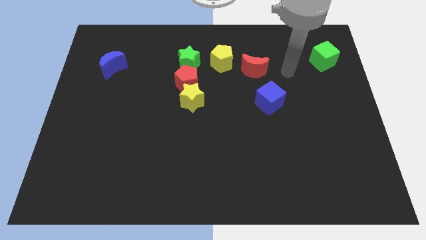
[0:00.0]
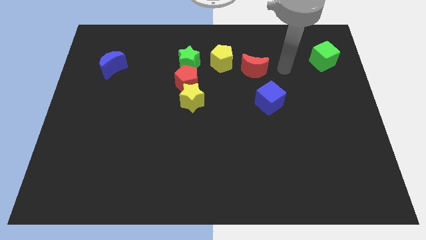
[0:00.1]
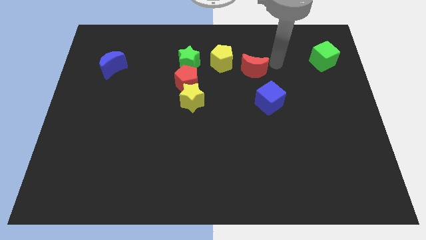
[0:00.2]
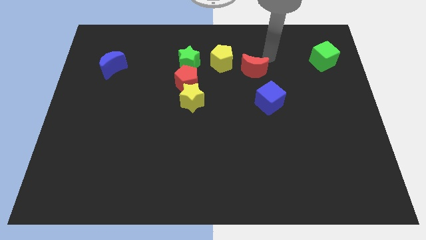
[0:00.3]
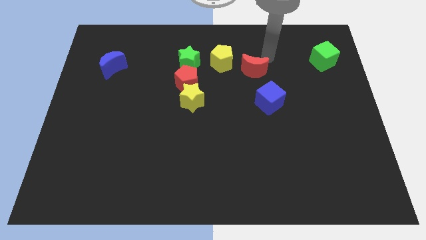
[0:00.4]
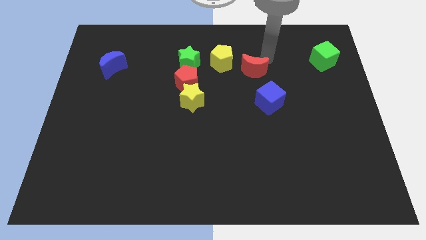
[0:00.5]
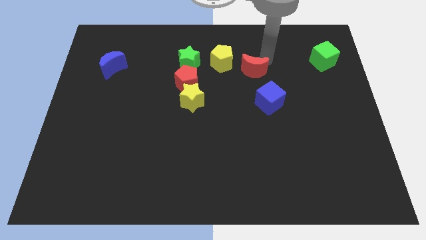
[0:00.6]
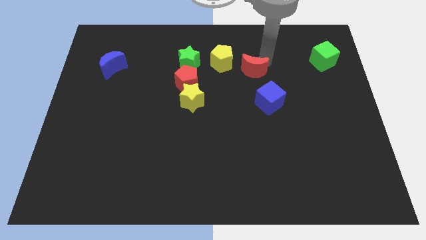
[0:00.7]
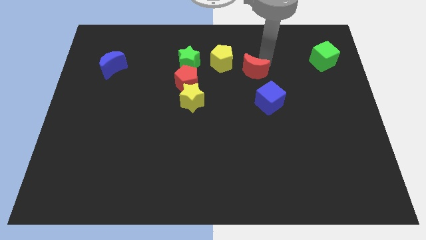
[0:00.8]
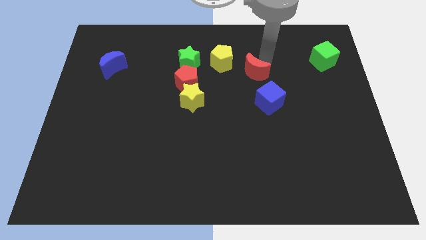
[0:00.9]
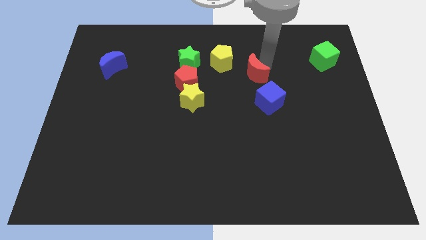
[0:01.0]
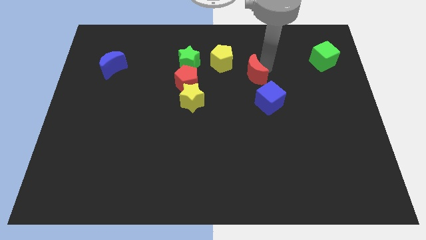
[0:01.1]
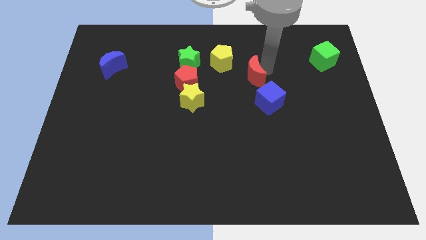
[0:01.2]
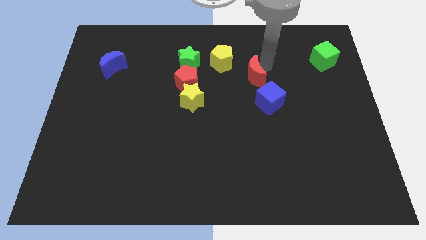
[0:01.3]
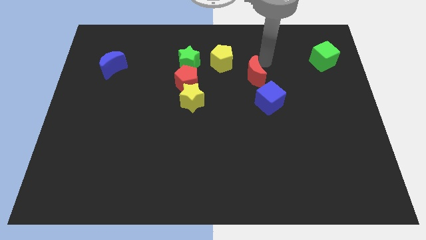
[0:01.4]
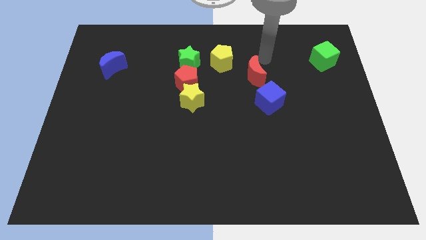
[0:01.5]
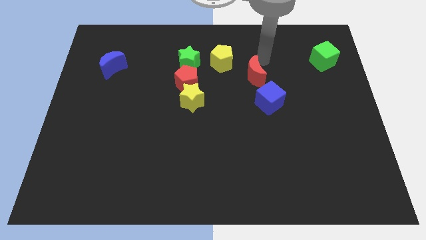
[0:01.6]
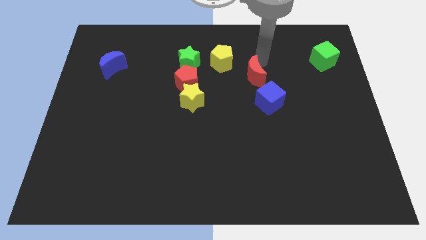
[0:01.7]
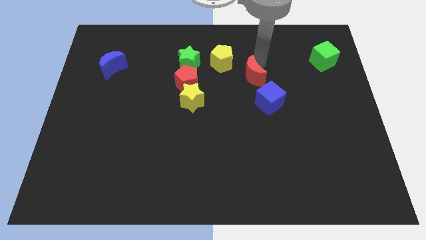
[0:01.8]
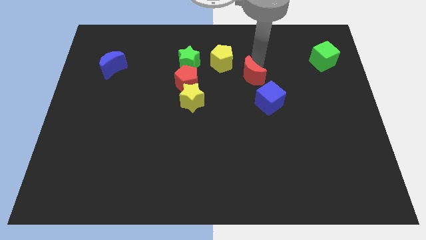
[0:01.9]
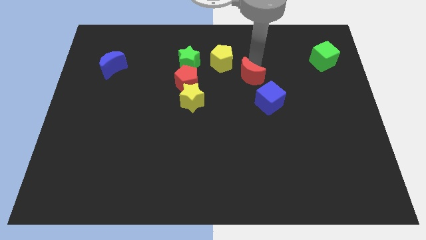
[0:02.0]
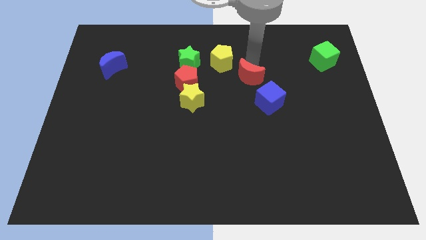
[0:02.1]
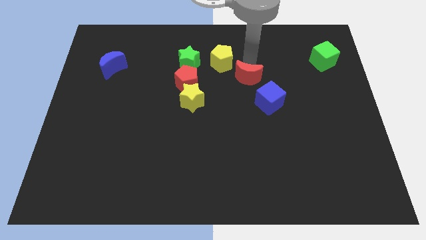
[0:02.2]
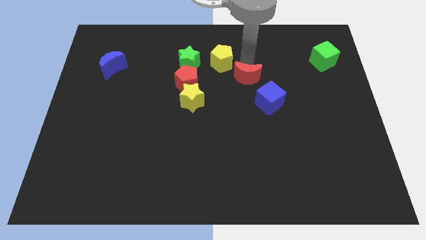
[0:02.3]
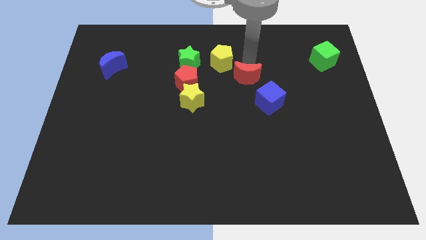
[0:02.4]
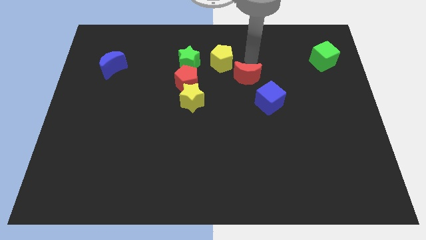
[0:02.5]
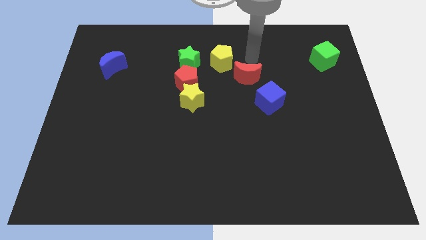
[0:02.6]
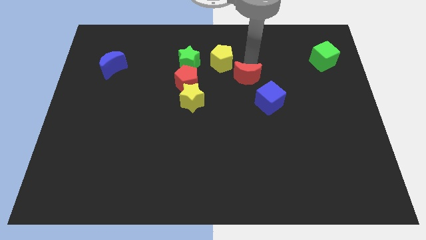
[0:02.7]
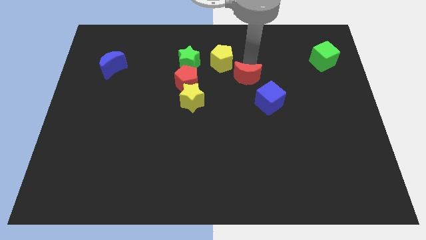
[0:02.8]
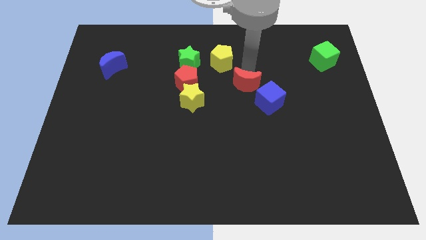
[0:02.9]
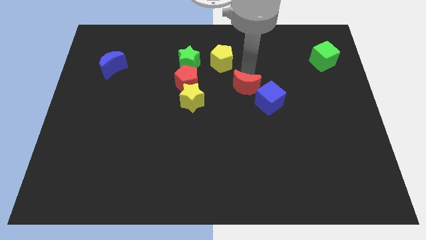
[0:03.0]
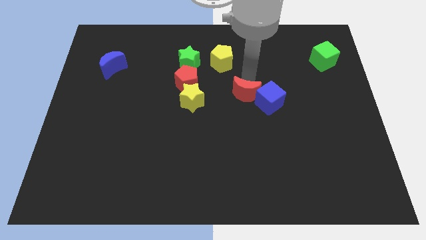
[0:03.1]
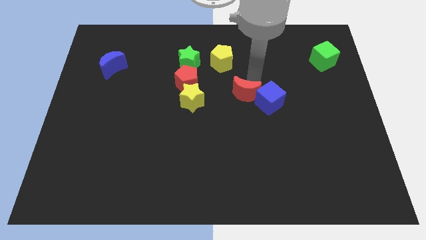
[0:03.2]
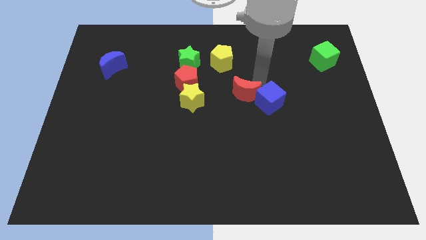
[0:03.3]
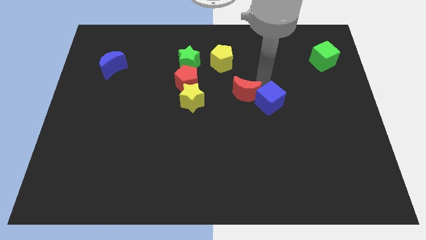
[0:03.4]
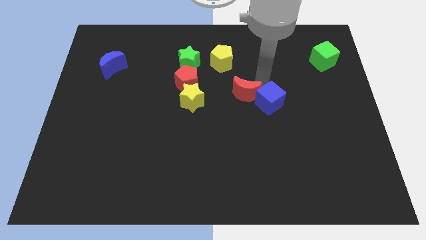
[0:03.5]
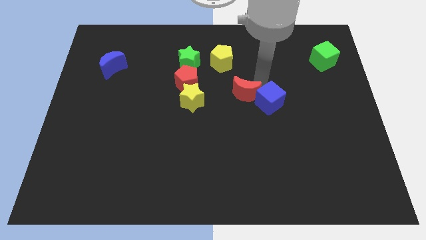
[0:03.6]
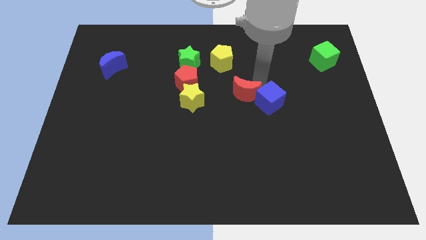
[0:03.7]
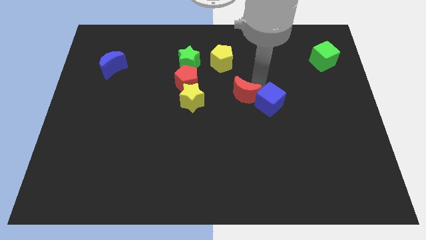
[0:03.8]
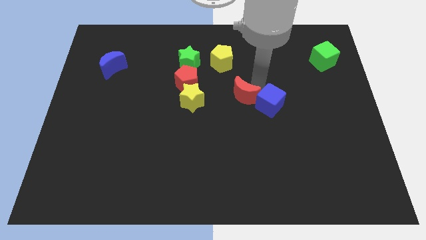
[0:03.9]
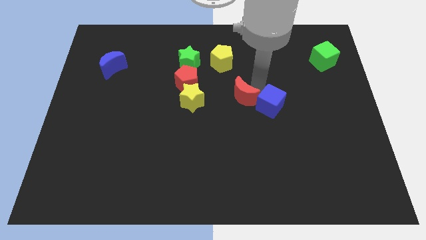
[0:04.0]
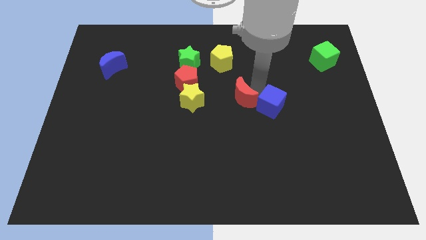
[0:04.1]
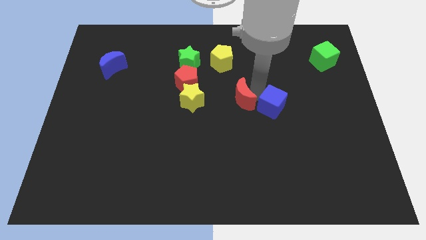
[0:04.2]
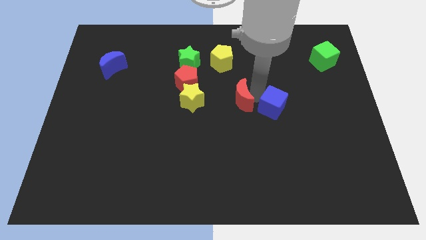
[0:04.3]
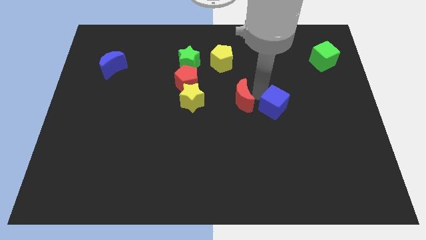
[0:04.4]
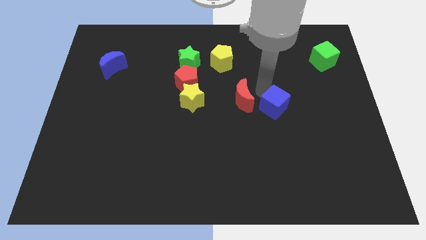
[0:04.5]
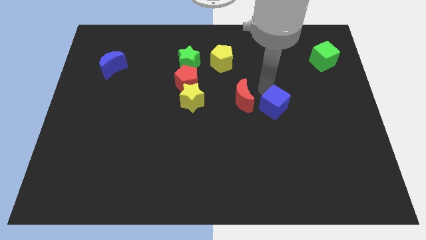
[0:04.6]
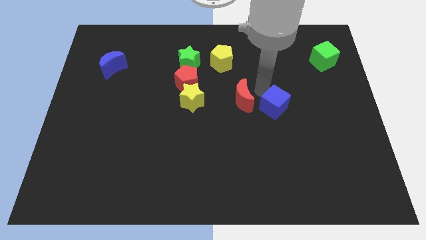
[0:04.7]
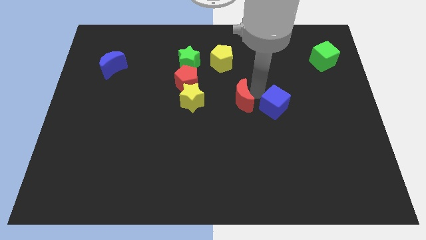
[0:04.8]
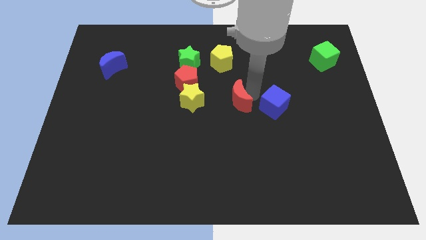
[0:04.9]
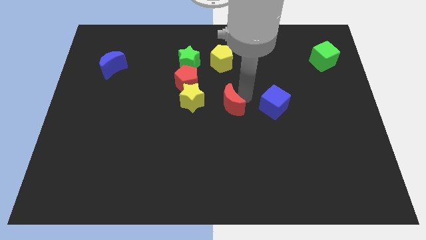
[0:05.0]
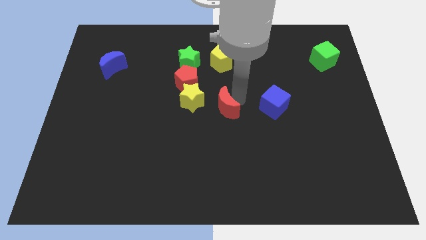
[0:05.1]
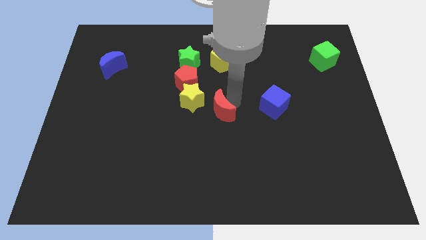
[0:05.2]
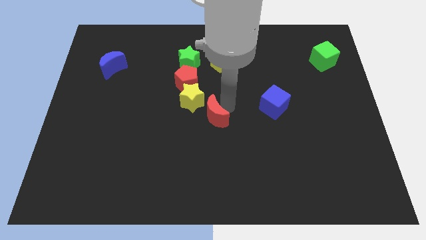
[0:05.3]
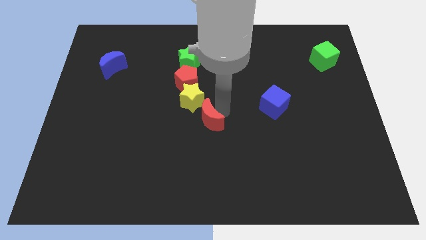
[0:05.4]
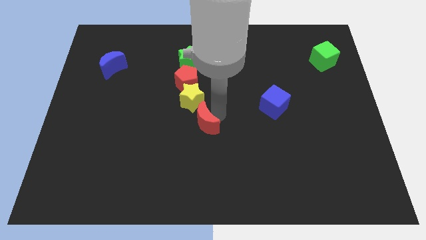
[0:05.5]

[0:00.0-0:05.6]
move the red moon downwards and then to the left

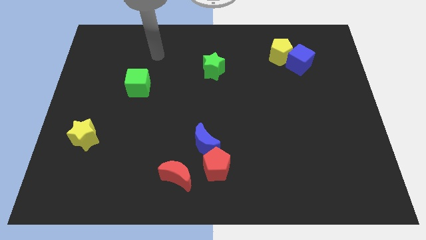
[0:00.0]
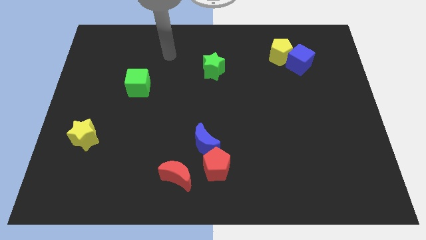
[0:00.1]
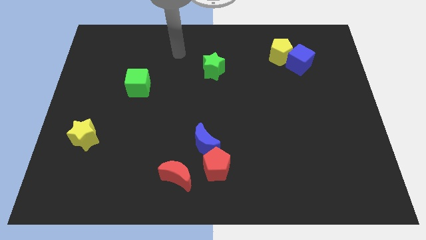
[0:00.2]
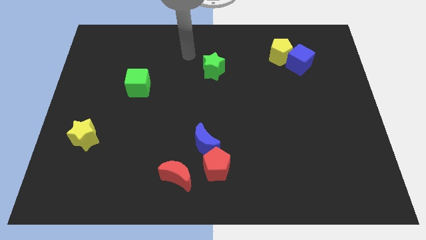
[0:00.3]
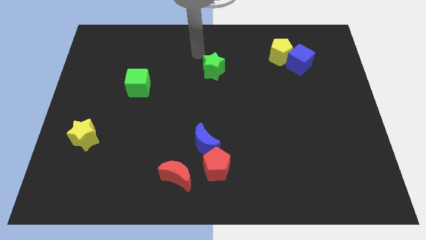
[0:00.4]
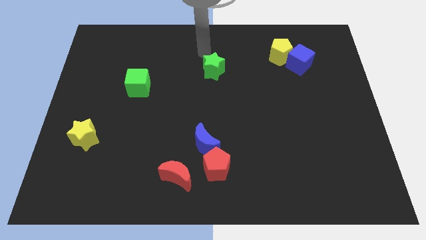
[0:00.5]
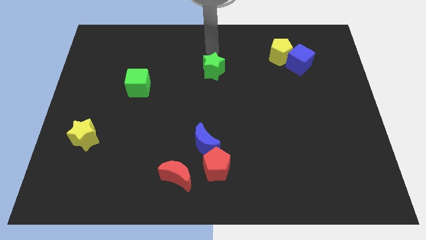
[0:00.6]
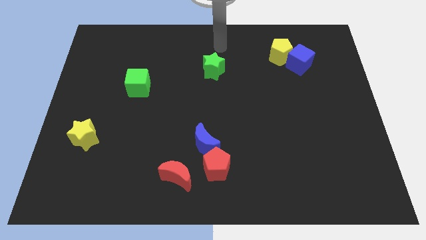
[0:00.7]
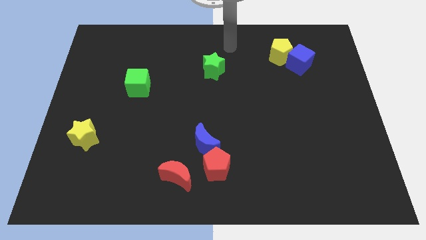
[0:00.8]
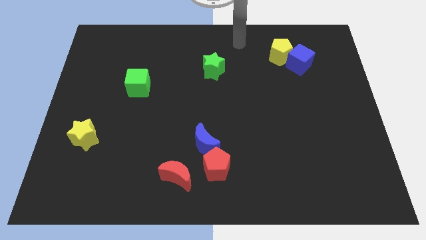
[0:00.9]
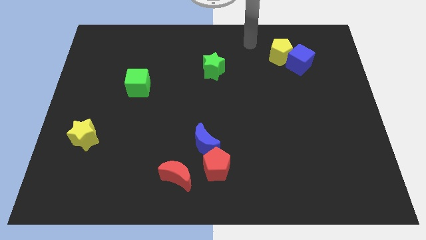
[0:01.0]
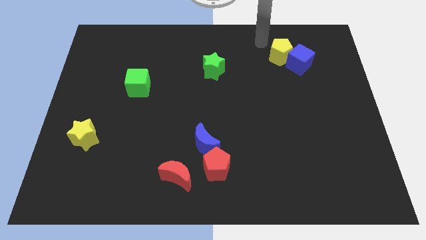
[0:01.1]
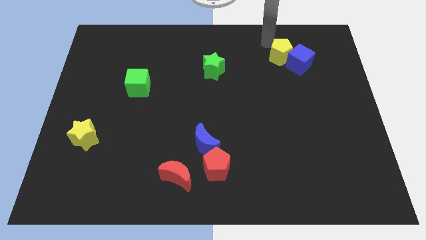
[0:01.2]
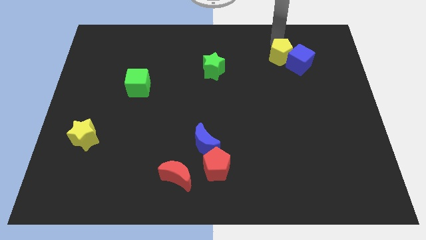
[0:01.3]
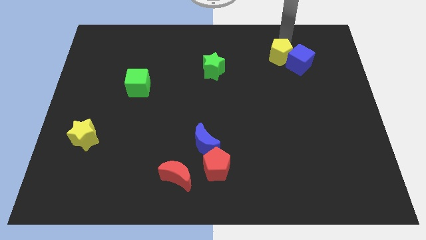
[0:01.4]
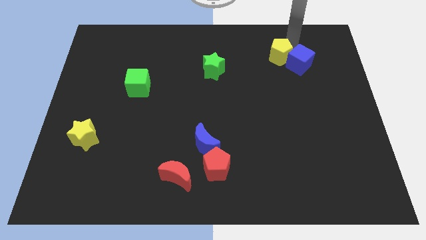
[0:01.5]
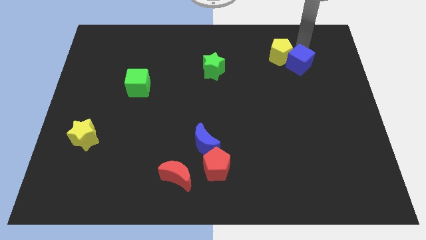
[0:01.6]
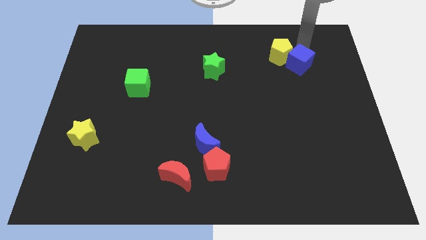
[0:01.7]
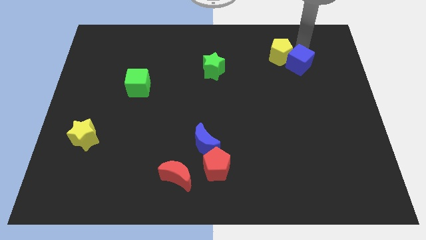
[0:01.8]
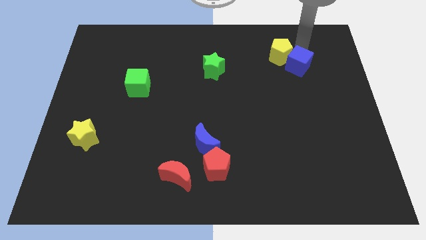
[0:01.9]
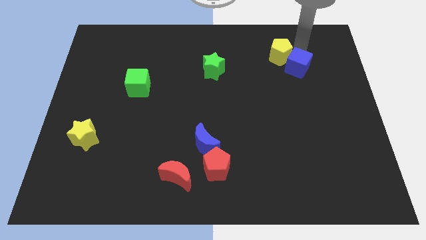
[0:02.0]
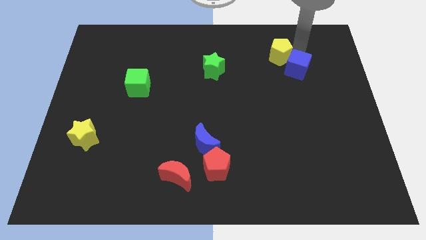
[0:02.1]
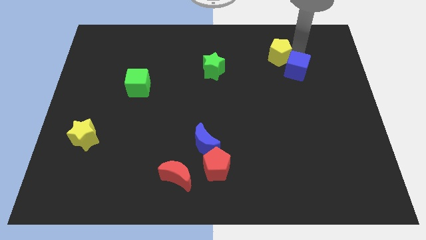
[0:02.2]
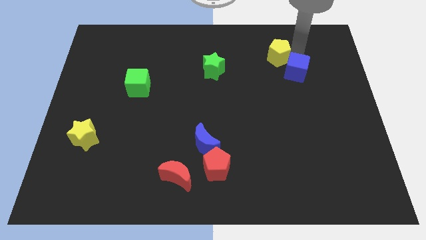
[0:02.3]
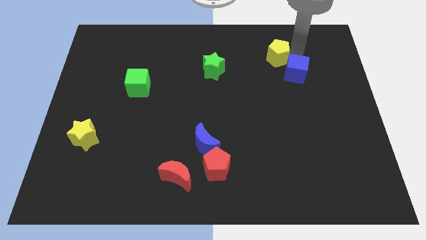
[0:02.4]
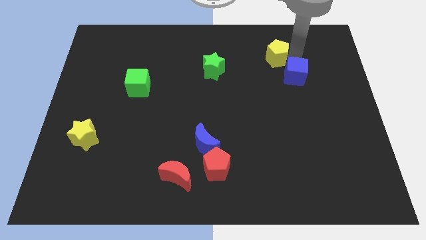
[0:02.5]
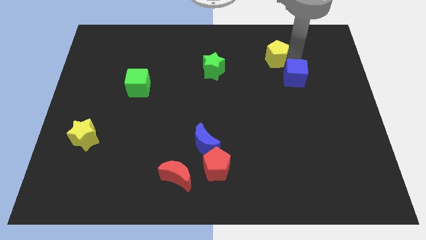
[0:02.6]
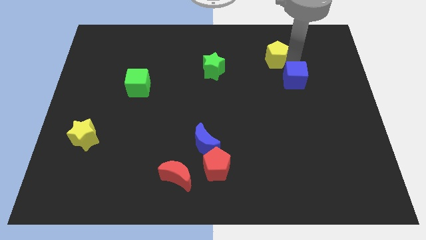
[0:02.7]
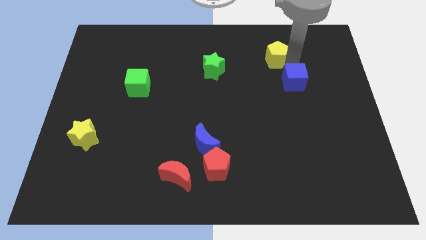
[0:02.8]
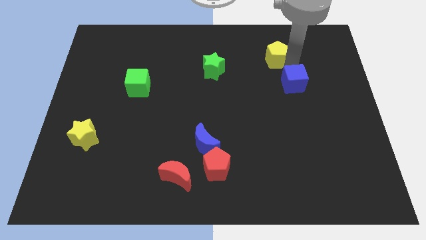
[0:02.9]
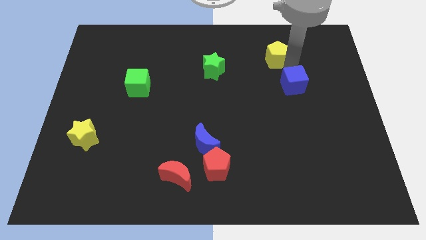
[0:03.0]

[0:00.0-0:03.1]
move the blue cube a bit downwards
